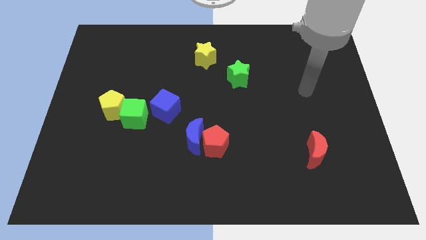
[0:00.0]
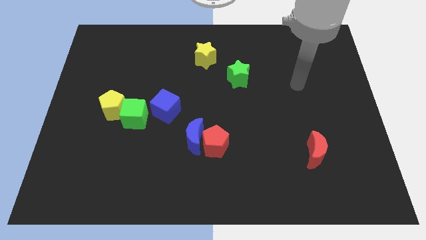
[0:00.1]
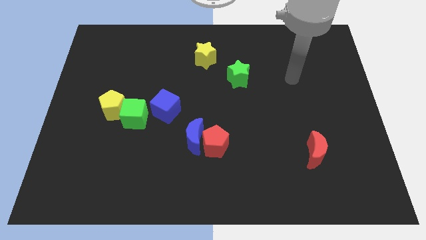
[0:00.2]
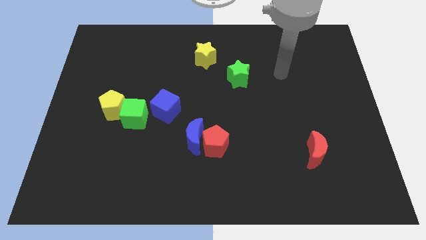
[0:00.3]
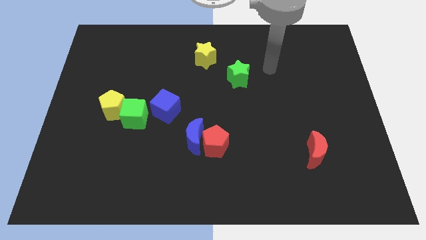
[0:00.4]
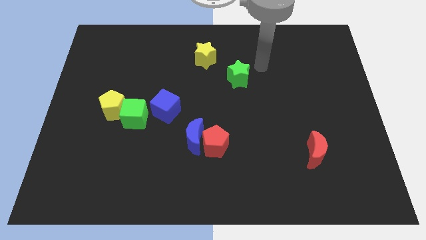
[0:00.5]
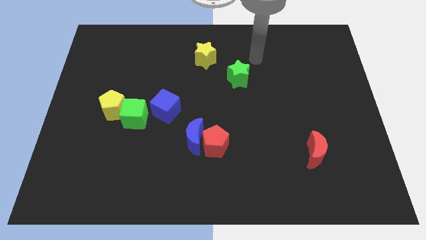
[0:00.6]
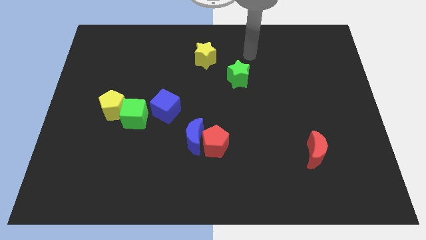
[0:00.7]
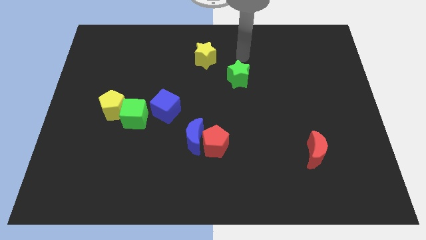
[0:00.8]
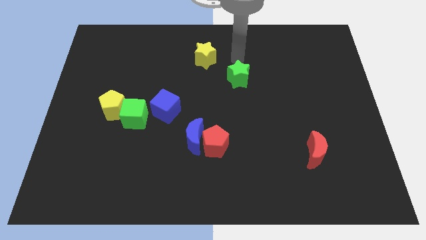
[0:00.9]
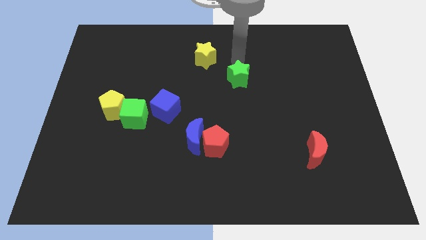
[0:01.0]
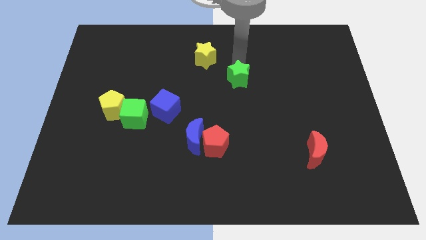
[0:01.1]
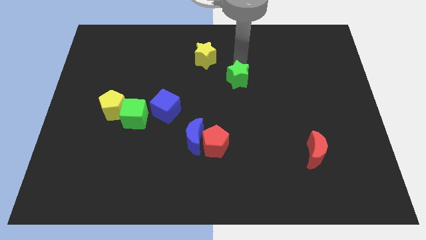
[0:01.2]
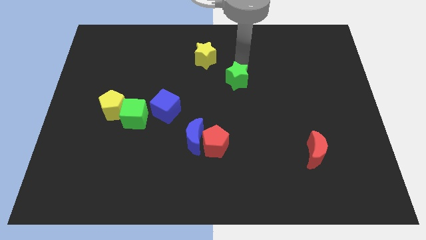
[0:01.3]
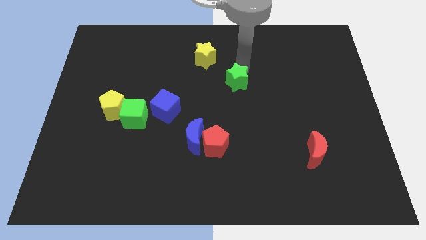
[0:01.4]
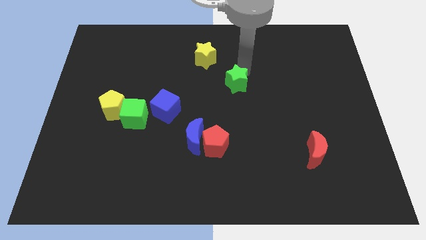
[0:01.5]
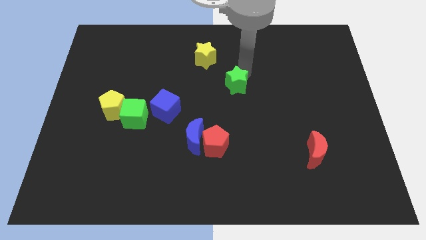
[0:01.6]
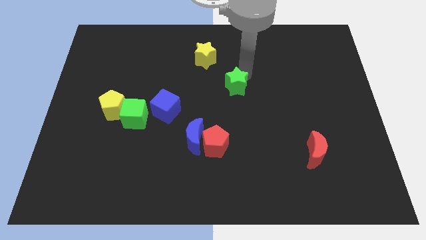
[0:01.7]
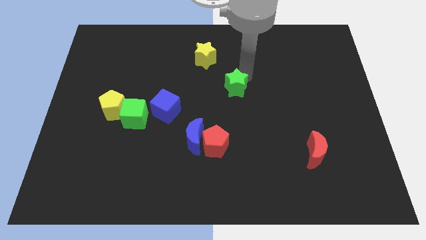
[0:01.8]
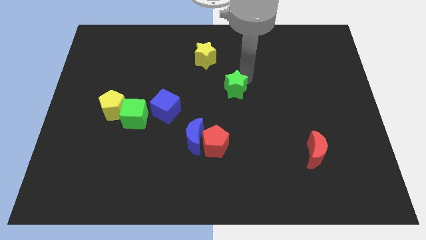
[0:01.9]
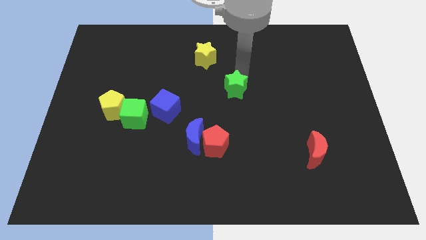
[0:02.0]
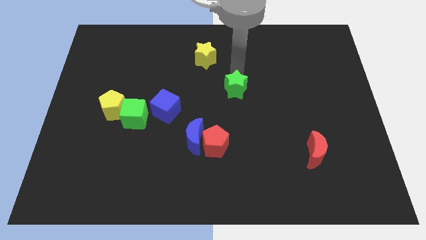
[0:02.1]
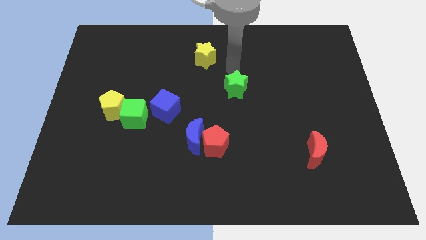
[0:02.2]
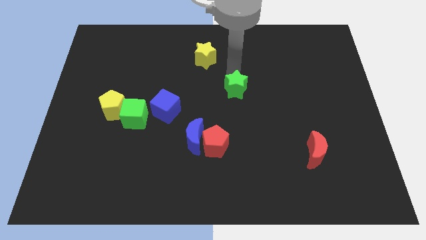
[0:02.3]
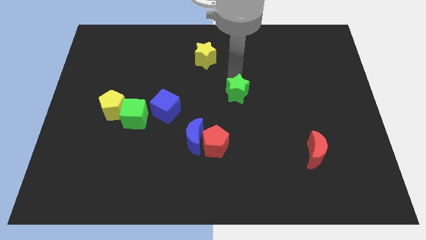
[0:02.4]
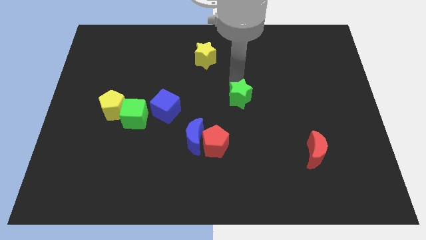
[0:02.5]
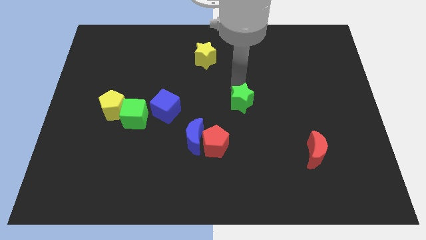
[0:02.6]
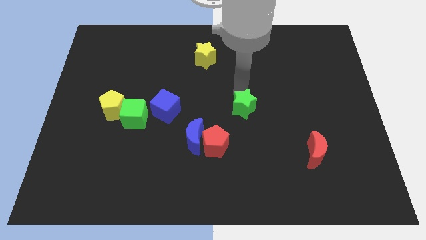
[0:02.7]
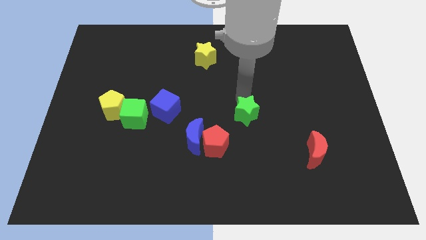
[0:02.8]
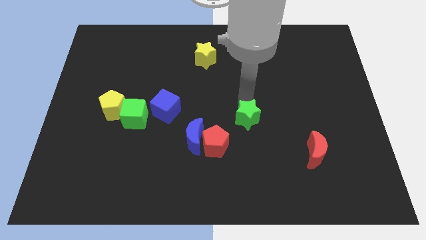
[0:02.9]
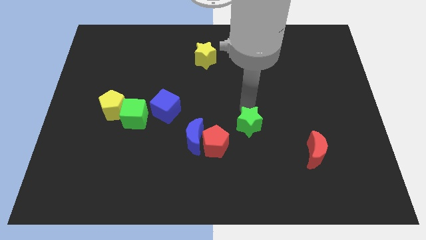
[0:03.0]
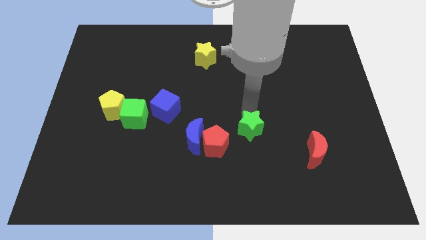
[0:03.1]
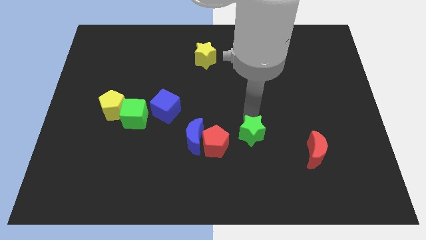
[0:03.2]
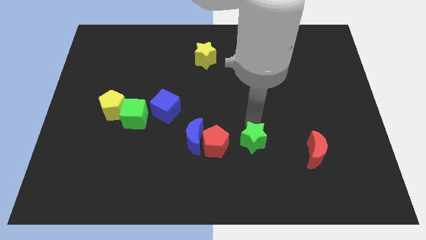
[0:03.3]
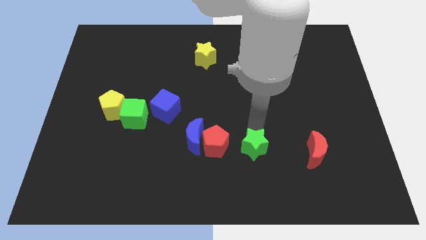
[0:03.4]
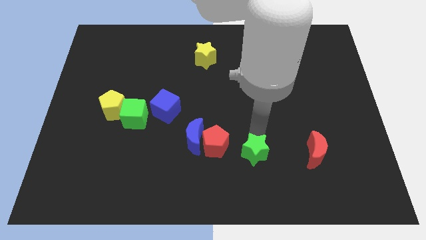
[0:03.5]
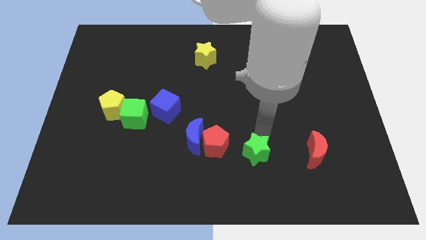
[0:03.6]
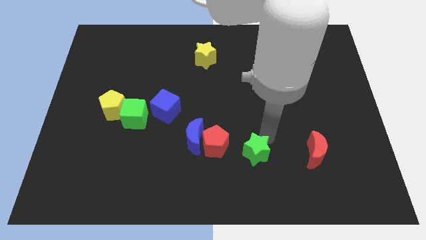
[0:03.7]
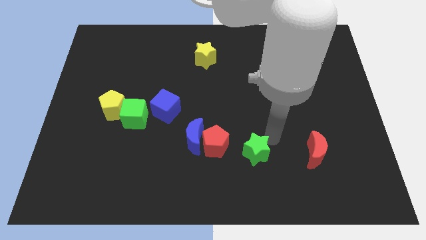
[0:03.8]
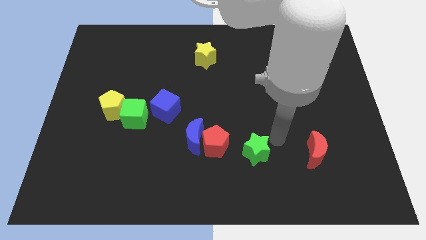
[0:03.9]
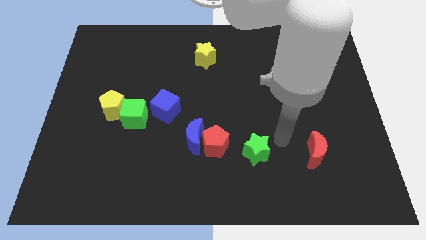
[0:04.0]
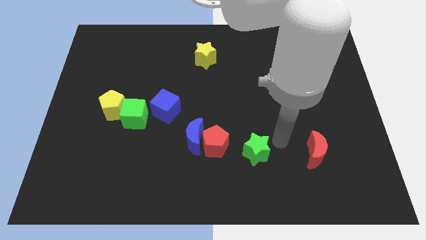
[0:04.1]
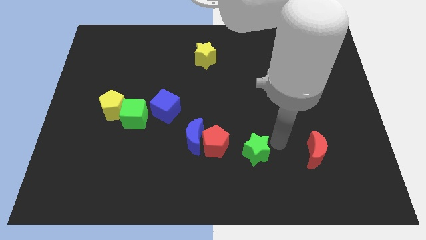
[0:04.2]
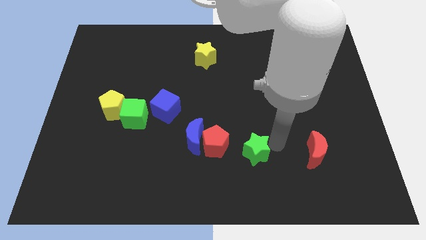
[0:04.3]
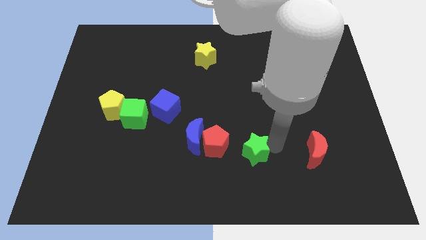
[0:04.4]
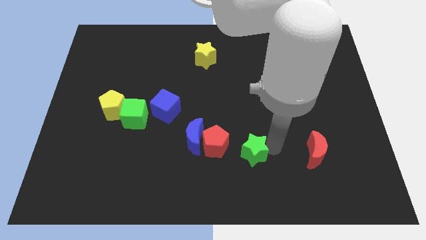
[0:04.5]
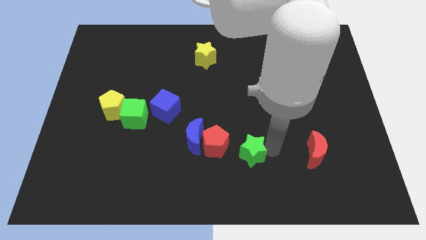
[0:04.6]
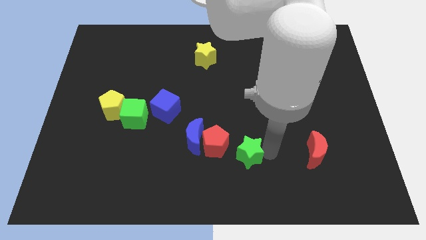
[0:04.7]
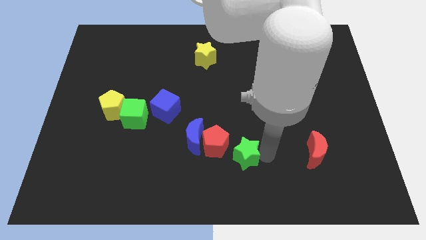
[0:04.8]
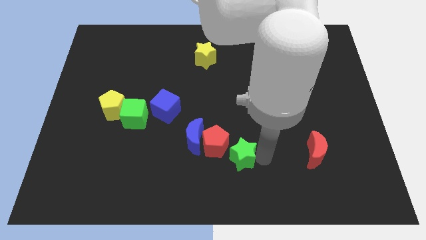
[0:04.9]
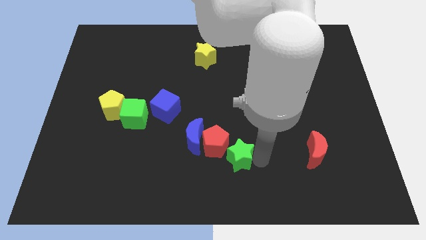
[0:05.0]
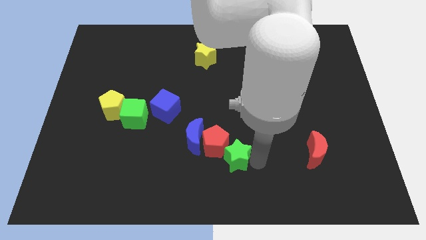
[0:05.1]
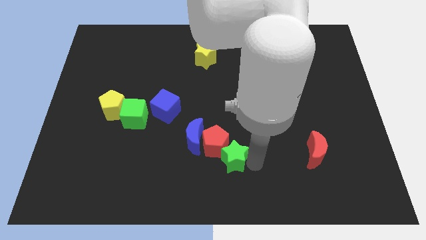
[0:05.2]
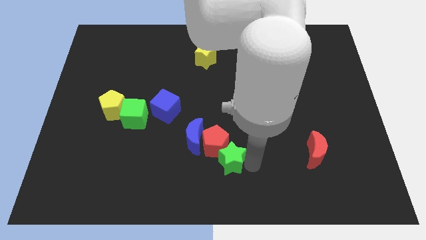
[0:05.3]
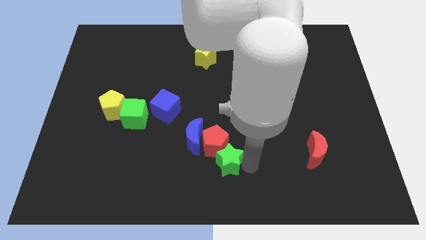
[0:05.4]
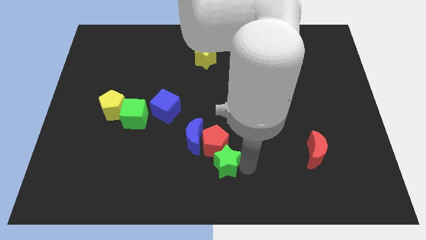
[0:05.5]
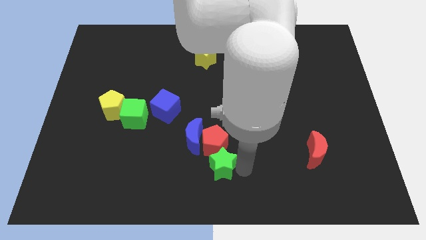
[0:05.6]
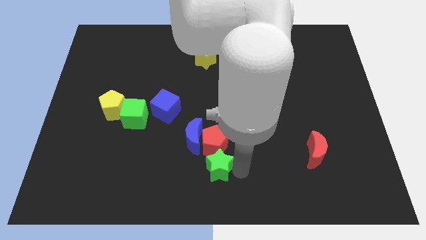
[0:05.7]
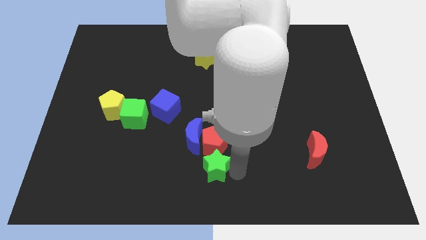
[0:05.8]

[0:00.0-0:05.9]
put the green star to the bottom side of the blue moon

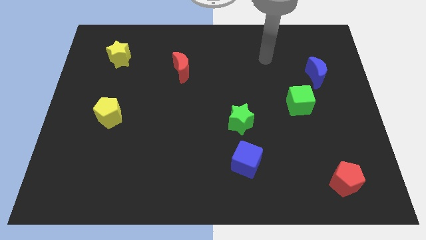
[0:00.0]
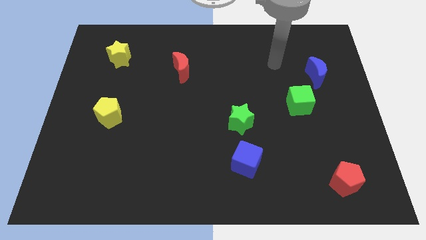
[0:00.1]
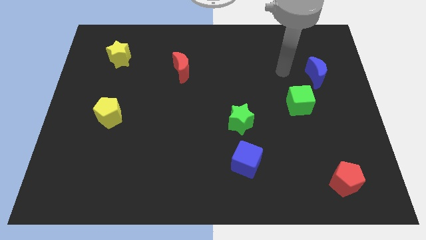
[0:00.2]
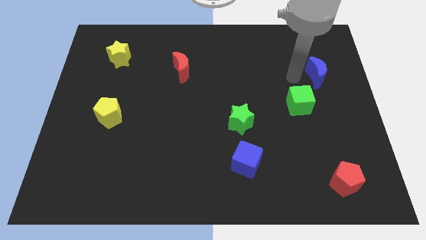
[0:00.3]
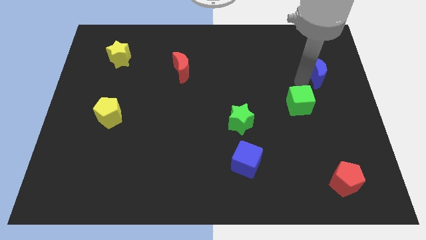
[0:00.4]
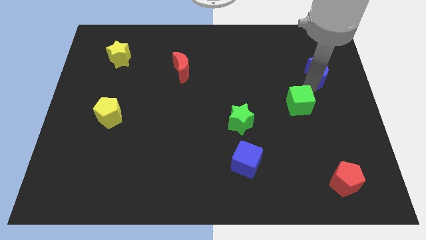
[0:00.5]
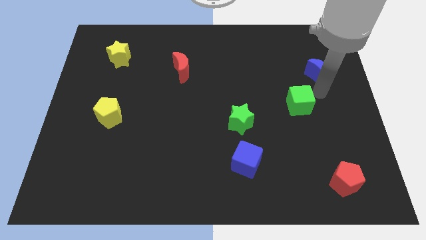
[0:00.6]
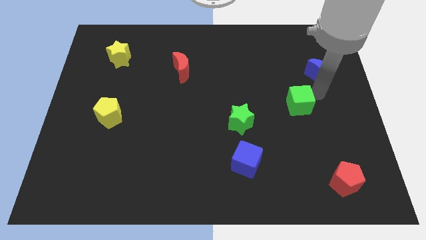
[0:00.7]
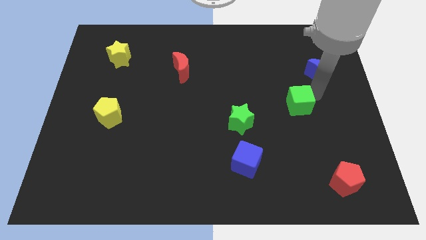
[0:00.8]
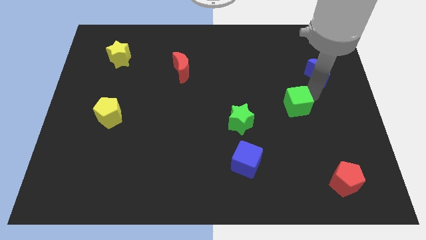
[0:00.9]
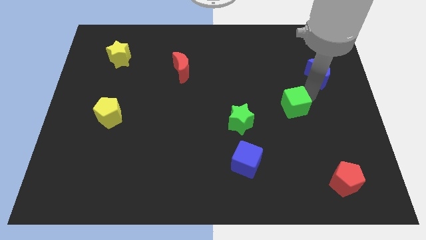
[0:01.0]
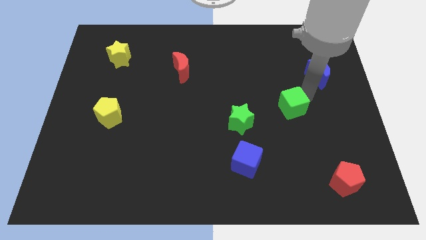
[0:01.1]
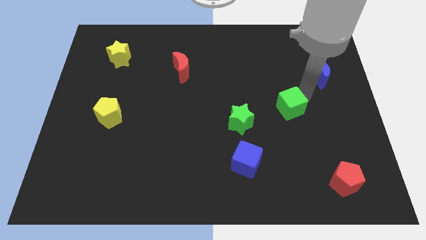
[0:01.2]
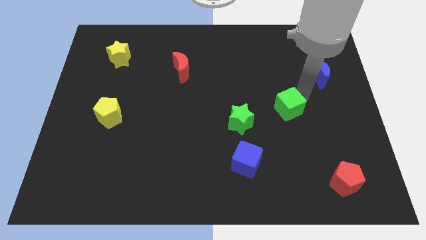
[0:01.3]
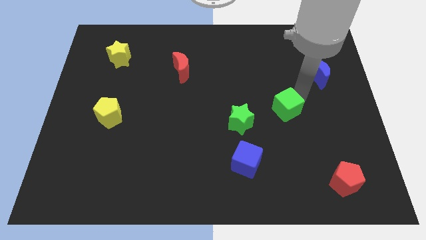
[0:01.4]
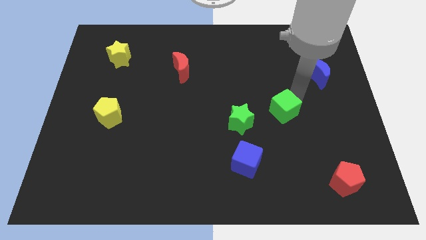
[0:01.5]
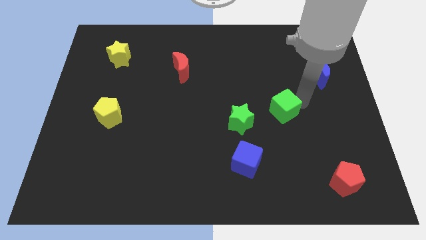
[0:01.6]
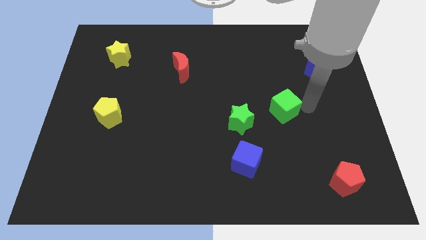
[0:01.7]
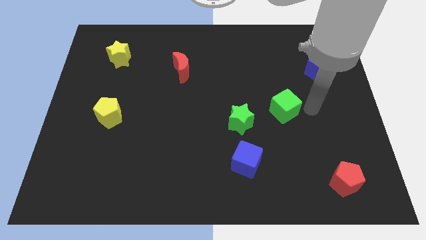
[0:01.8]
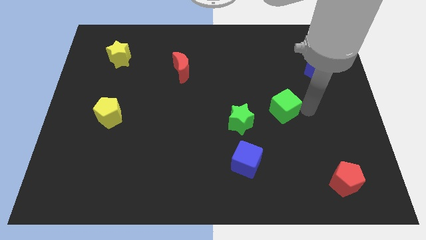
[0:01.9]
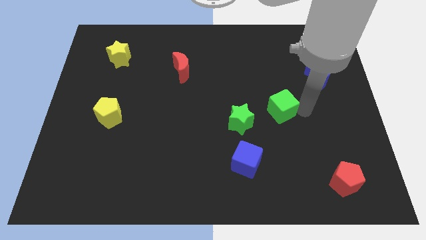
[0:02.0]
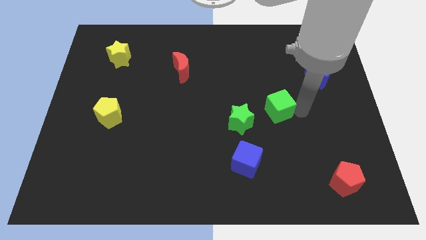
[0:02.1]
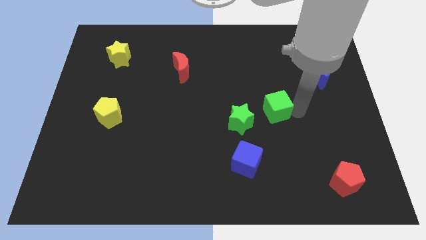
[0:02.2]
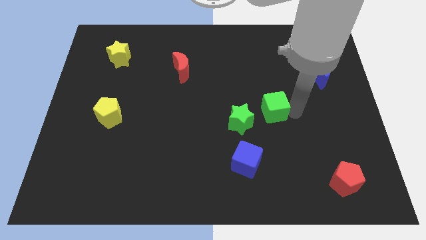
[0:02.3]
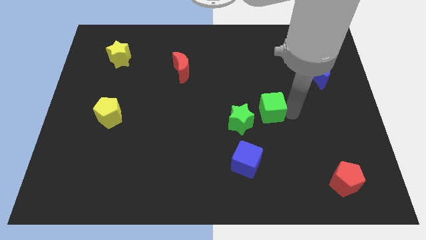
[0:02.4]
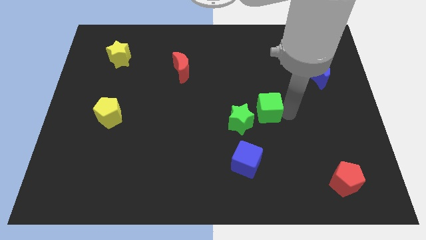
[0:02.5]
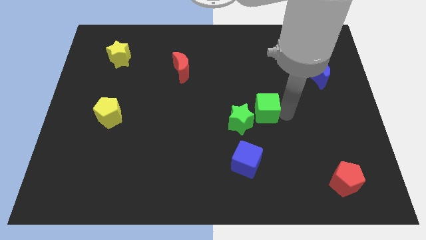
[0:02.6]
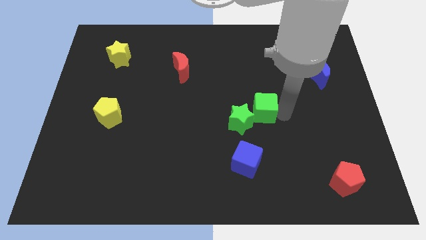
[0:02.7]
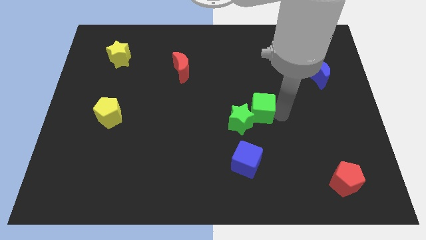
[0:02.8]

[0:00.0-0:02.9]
move the green cube to the top of the blue cube
